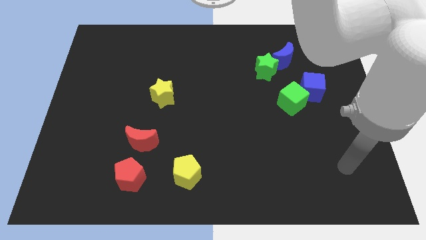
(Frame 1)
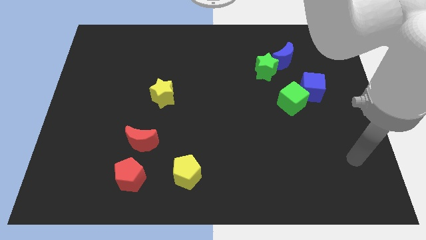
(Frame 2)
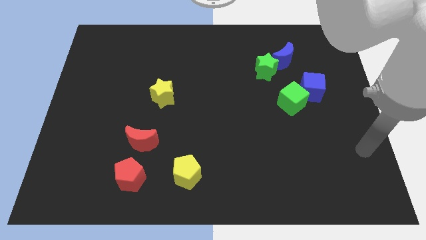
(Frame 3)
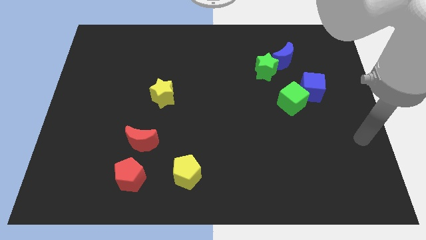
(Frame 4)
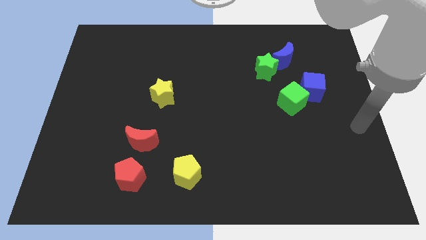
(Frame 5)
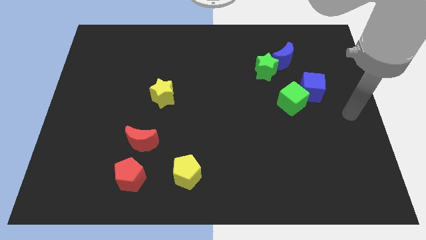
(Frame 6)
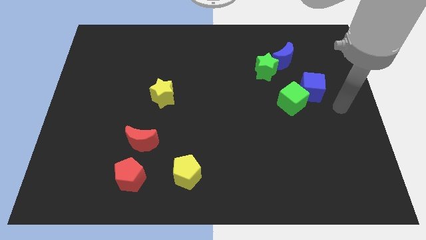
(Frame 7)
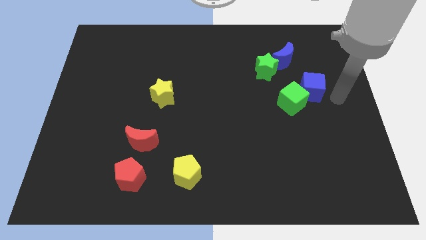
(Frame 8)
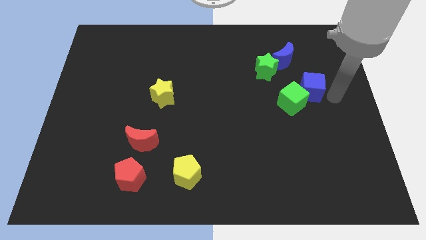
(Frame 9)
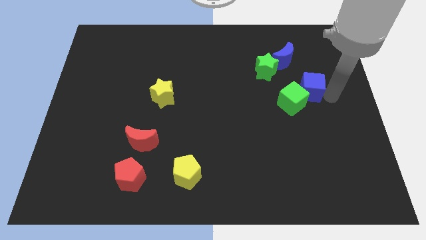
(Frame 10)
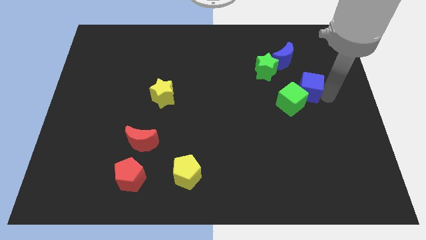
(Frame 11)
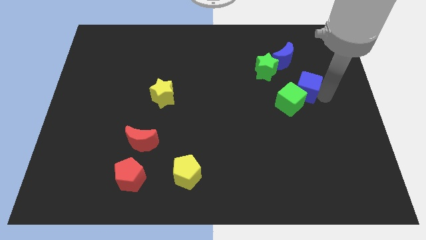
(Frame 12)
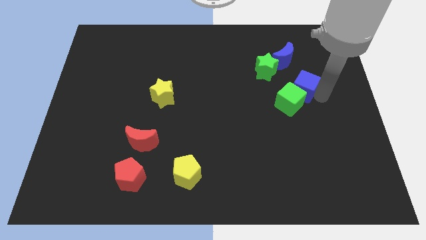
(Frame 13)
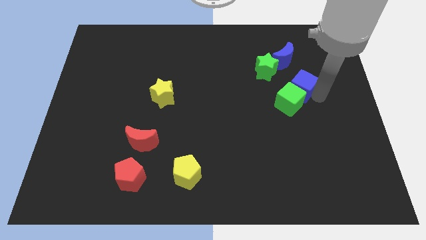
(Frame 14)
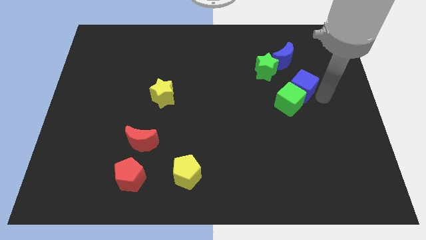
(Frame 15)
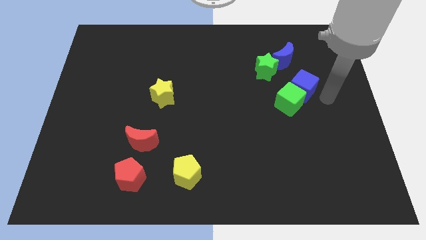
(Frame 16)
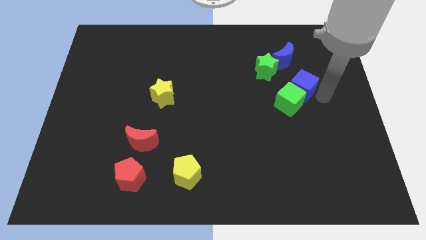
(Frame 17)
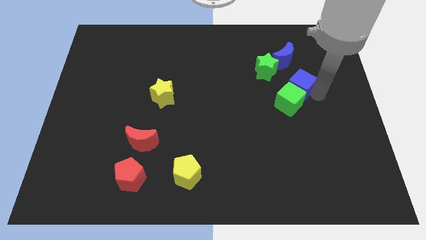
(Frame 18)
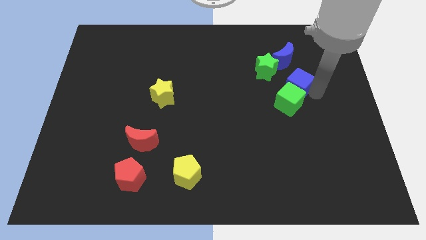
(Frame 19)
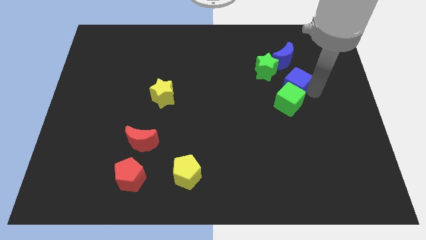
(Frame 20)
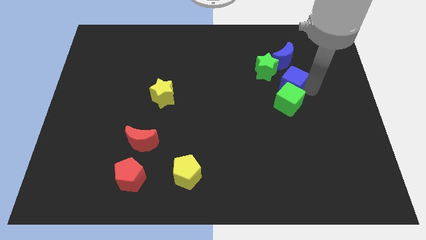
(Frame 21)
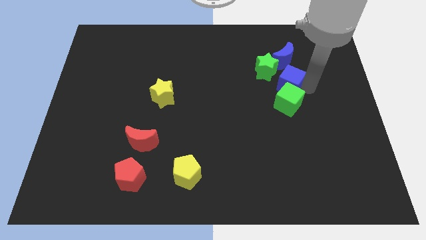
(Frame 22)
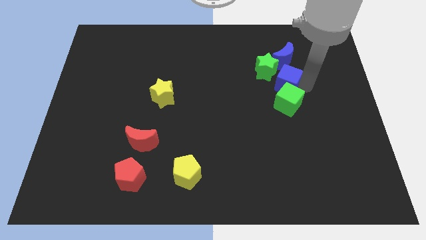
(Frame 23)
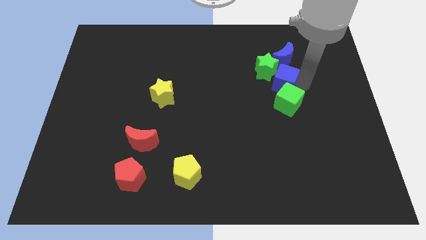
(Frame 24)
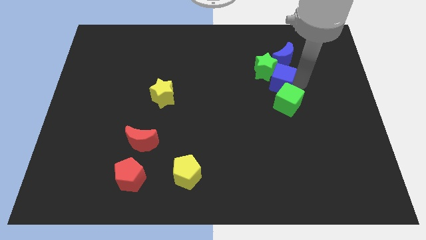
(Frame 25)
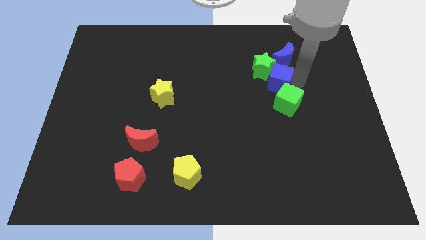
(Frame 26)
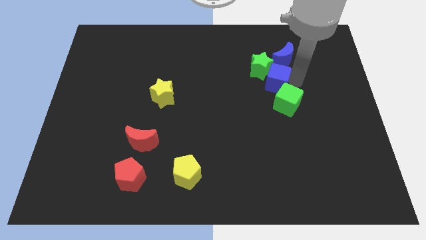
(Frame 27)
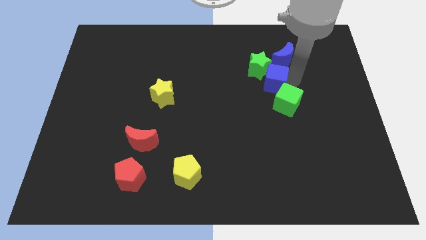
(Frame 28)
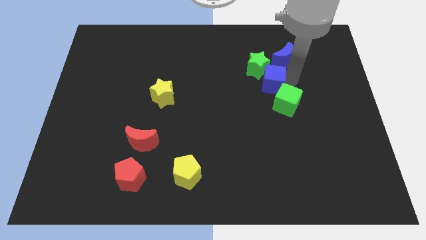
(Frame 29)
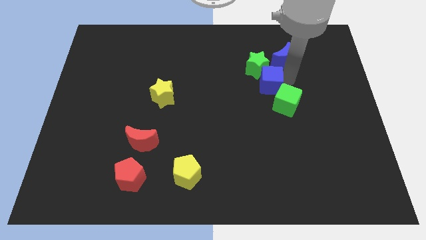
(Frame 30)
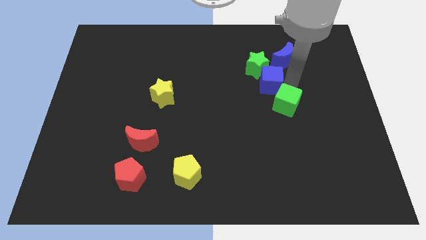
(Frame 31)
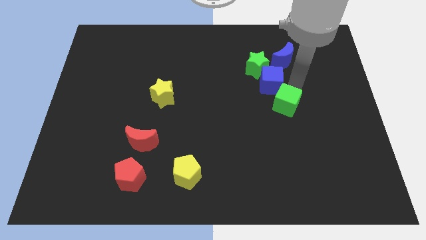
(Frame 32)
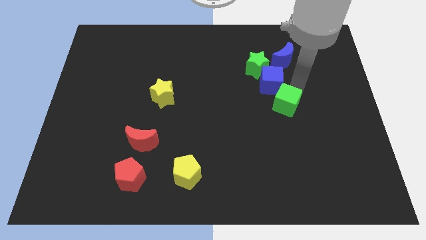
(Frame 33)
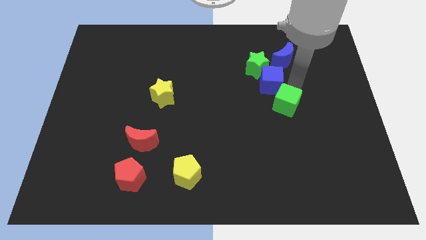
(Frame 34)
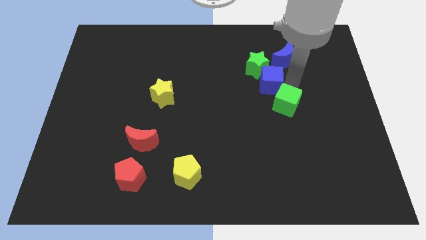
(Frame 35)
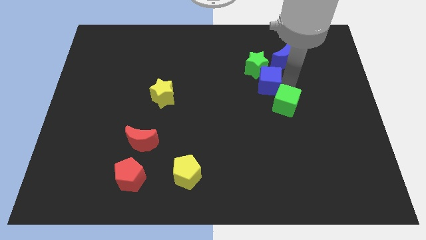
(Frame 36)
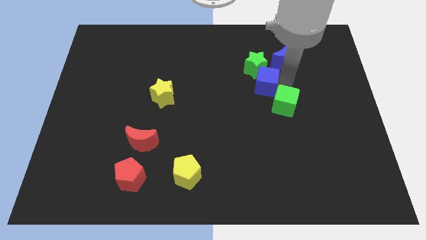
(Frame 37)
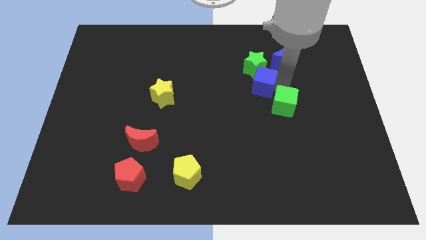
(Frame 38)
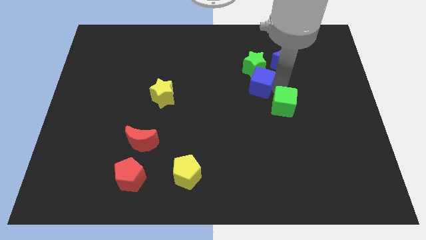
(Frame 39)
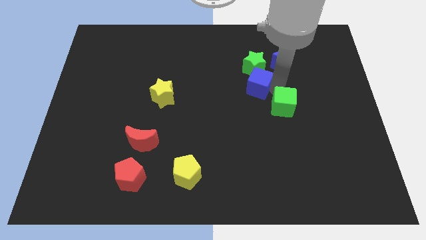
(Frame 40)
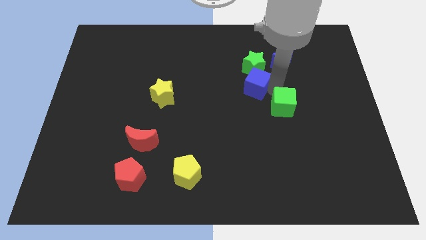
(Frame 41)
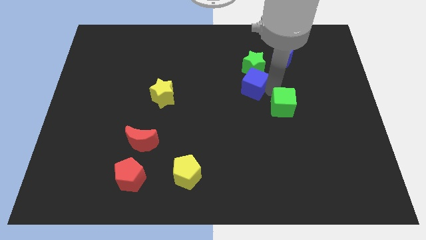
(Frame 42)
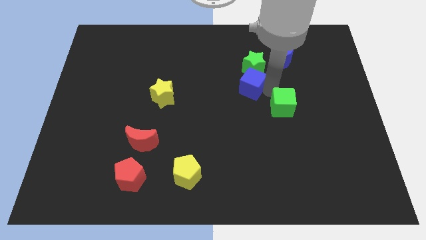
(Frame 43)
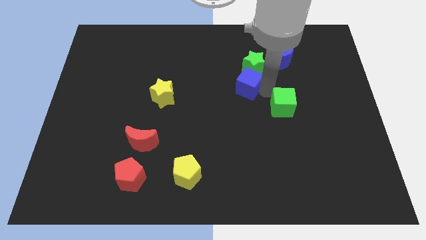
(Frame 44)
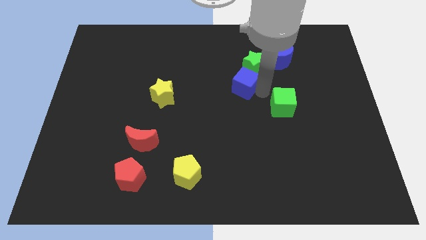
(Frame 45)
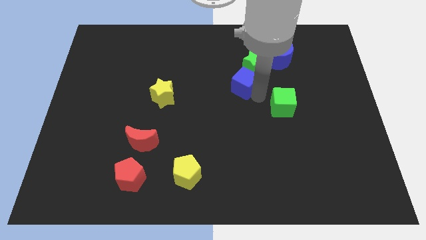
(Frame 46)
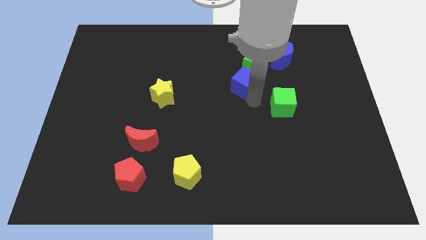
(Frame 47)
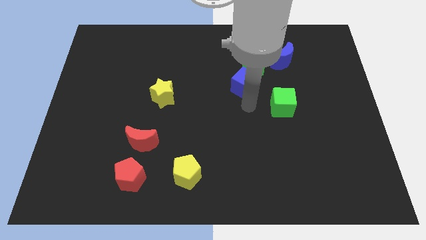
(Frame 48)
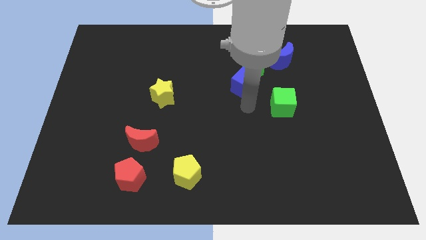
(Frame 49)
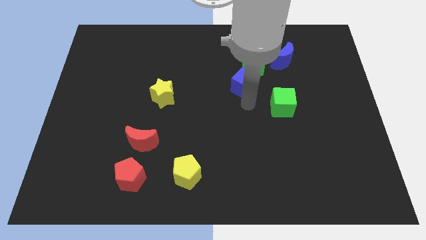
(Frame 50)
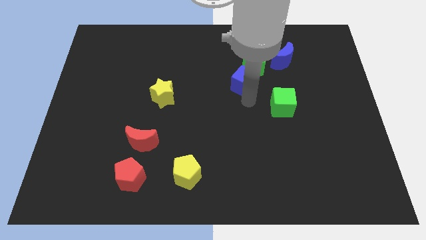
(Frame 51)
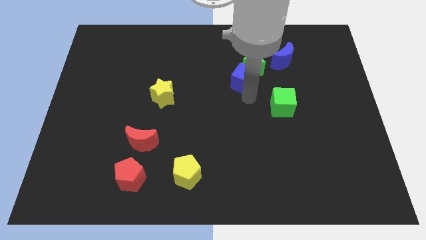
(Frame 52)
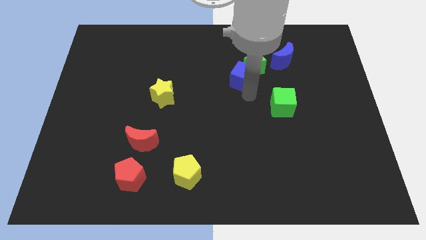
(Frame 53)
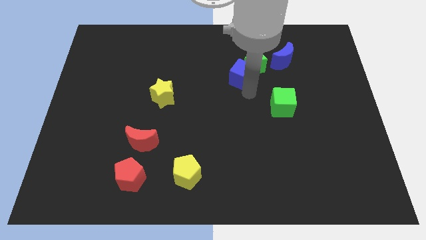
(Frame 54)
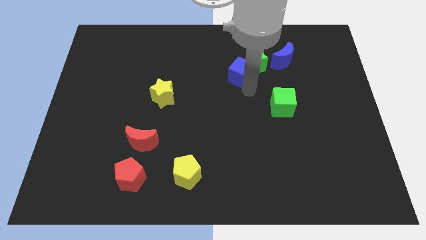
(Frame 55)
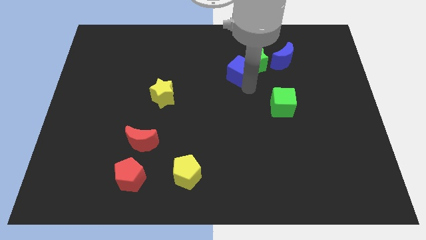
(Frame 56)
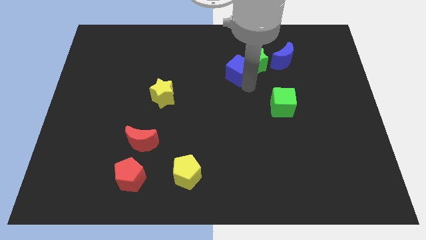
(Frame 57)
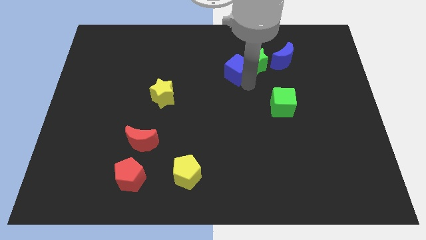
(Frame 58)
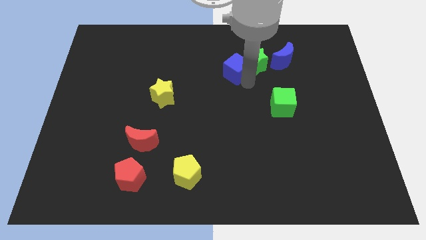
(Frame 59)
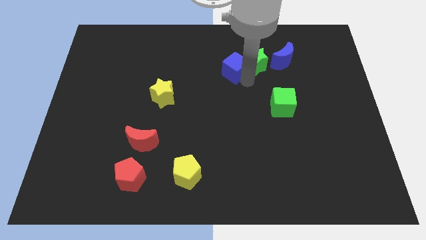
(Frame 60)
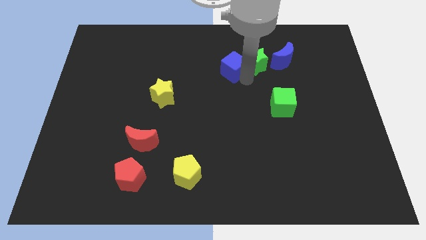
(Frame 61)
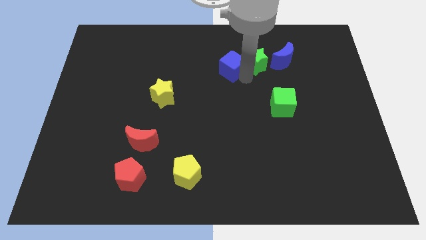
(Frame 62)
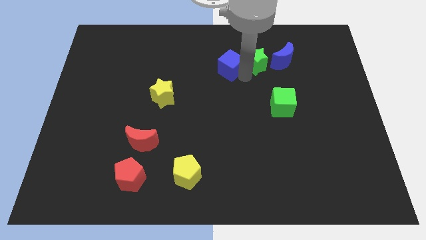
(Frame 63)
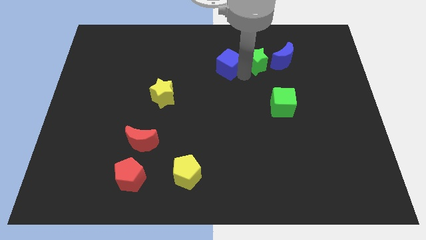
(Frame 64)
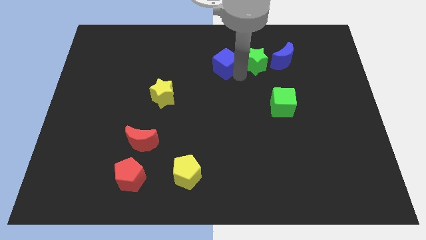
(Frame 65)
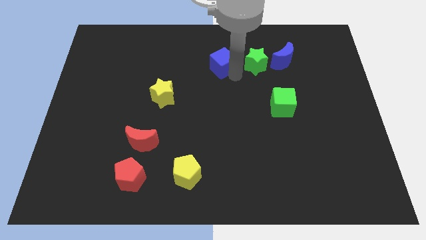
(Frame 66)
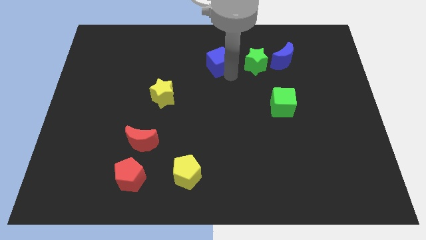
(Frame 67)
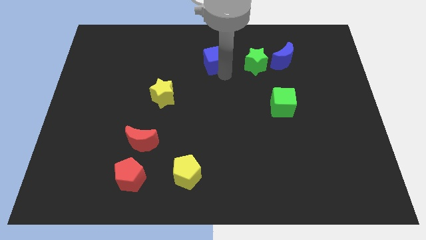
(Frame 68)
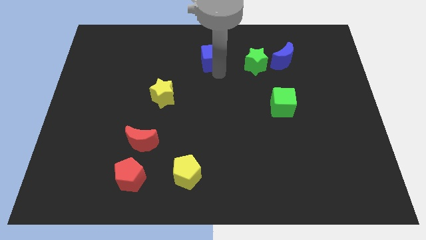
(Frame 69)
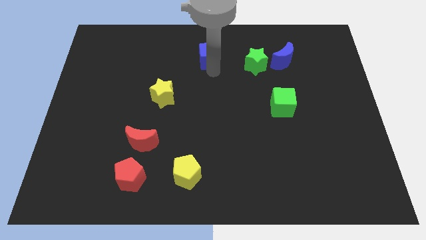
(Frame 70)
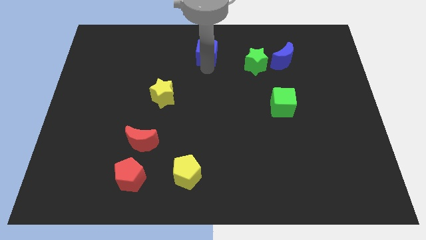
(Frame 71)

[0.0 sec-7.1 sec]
move the blue cube to the top side

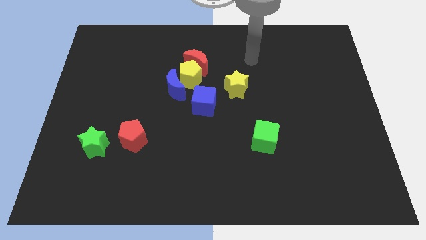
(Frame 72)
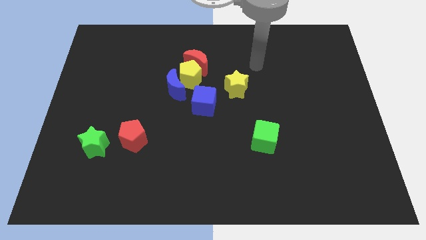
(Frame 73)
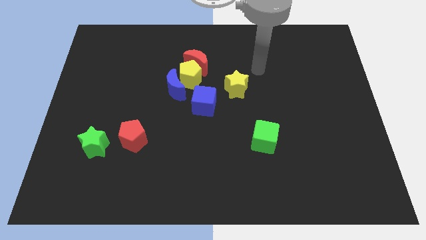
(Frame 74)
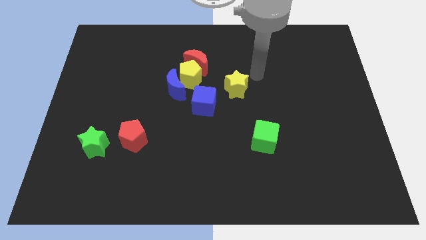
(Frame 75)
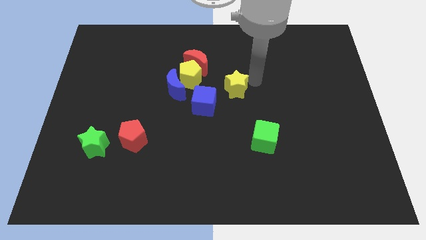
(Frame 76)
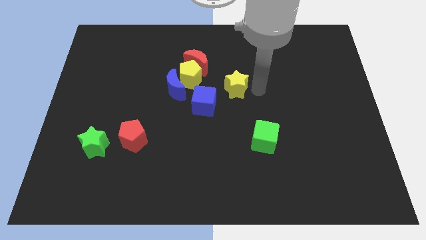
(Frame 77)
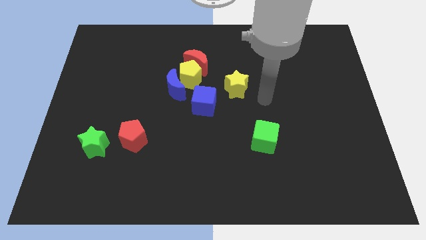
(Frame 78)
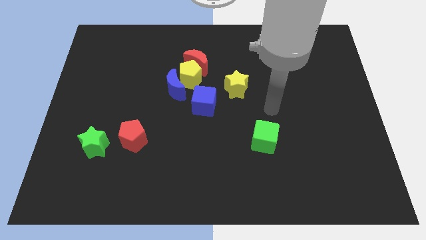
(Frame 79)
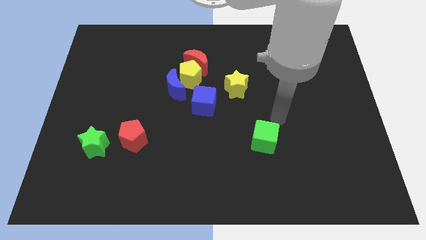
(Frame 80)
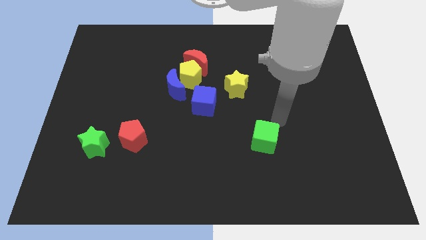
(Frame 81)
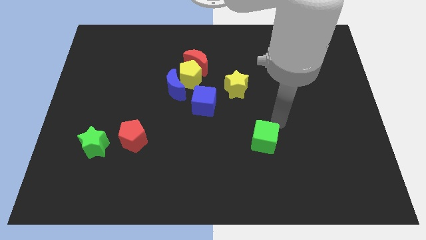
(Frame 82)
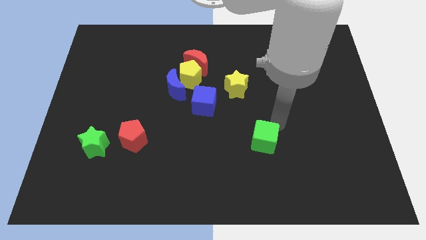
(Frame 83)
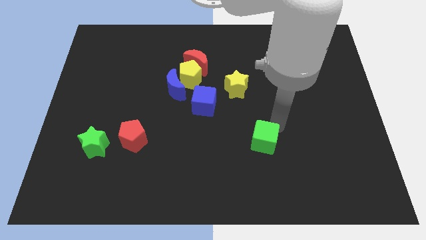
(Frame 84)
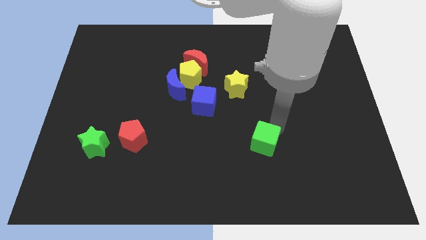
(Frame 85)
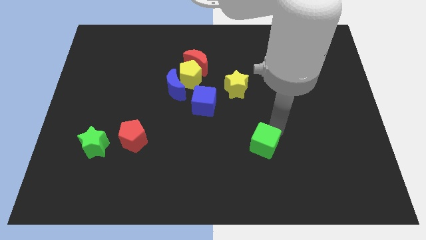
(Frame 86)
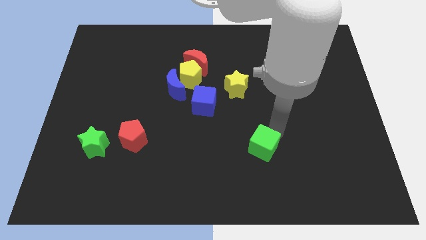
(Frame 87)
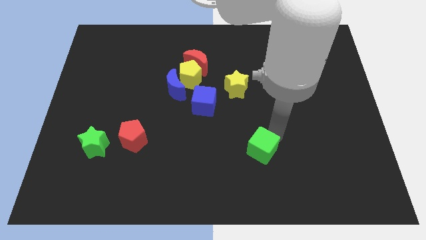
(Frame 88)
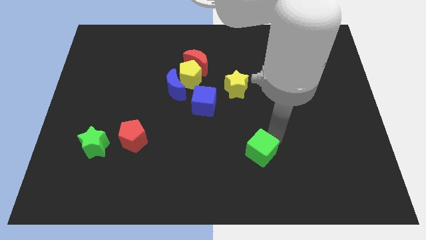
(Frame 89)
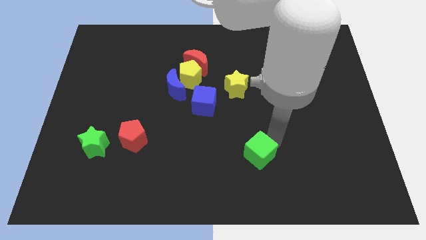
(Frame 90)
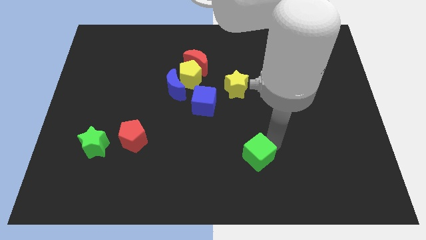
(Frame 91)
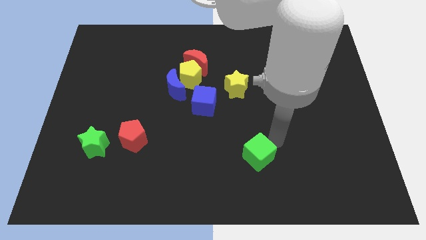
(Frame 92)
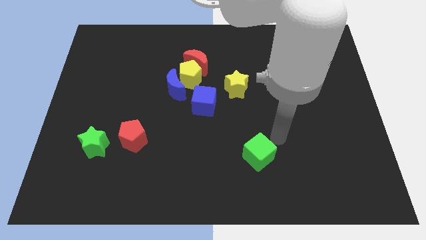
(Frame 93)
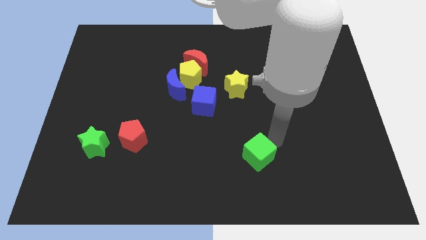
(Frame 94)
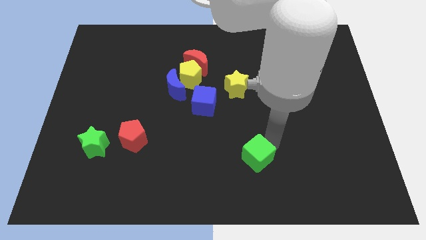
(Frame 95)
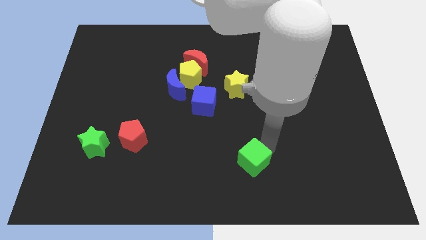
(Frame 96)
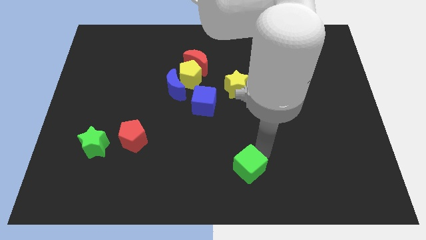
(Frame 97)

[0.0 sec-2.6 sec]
put the green cube to the bottom
